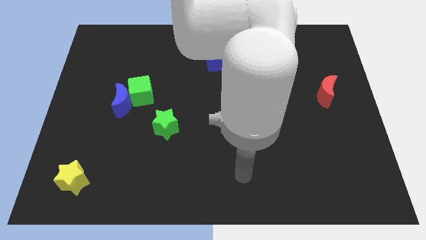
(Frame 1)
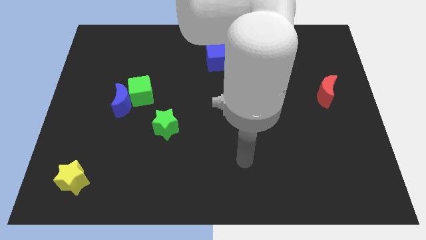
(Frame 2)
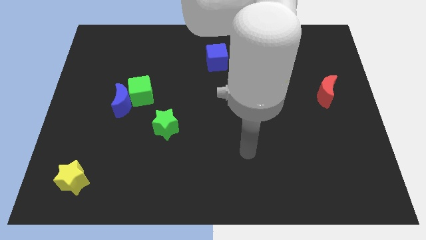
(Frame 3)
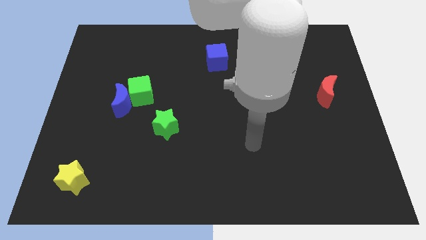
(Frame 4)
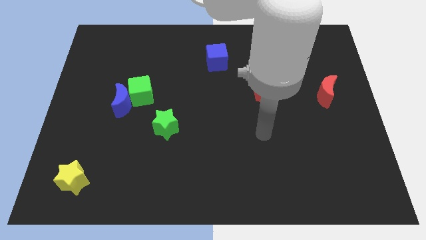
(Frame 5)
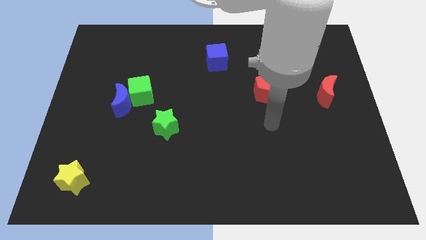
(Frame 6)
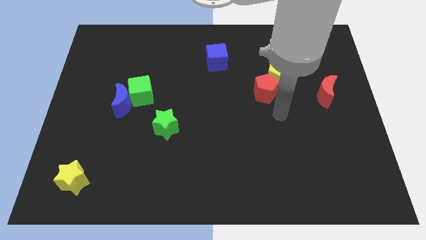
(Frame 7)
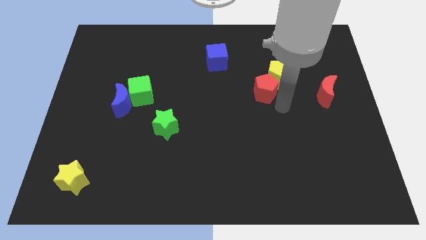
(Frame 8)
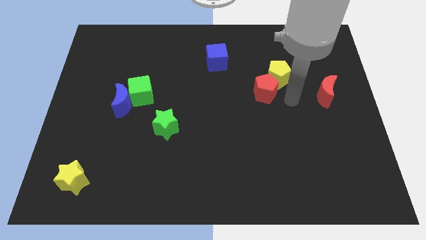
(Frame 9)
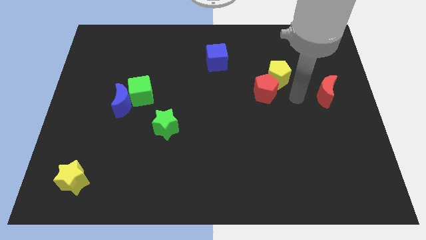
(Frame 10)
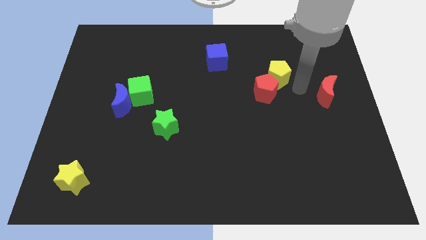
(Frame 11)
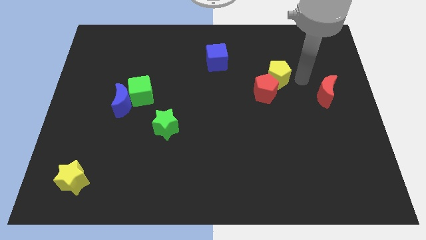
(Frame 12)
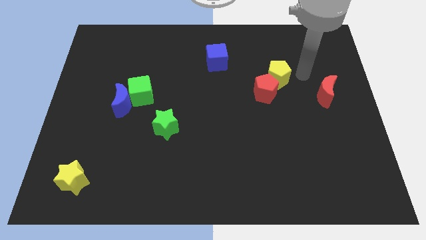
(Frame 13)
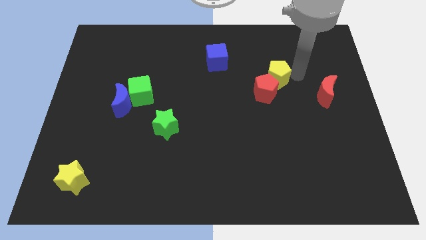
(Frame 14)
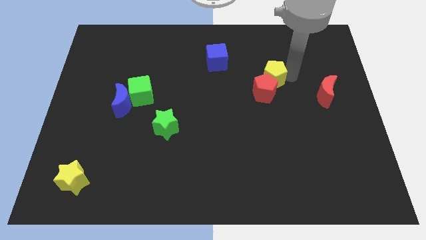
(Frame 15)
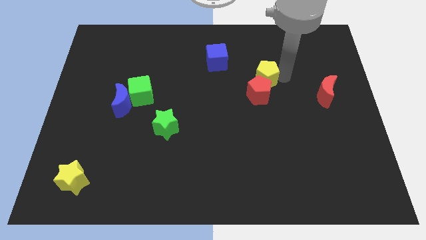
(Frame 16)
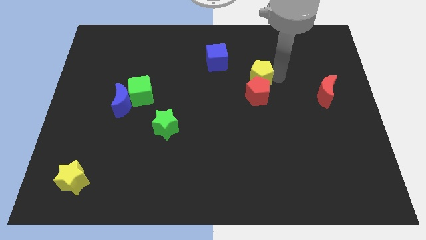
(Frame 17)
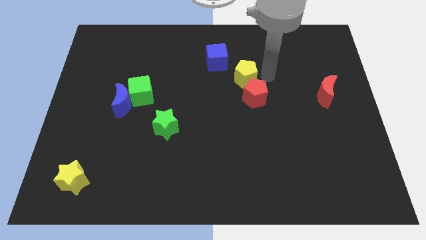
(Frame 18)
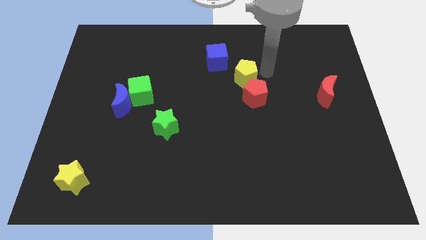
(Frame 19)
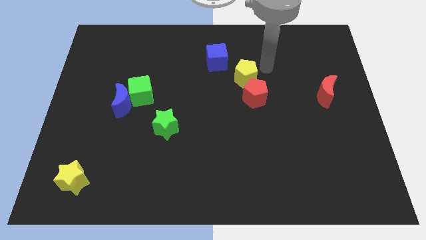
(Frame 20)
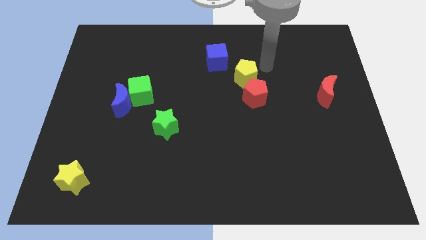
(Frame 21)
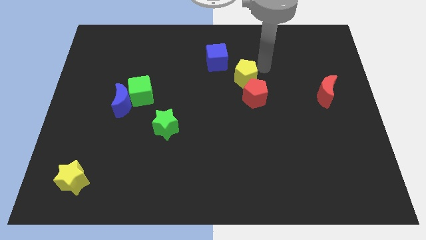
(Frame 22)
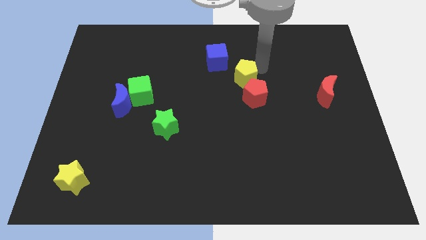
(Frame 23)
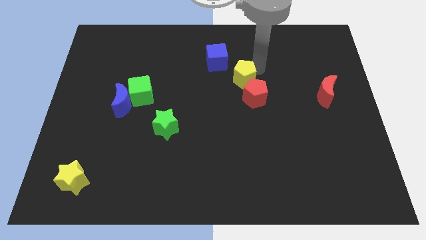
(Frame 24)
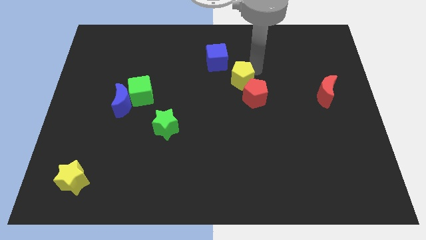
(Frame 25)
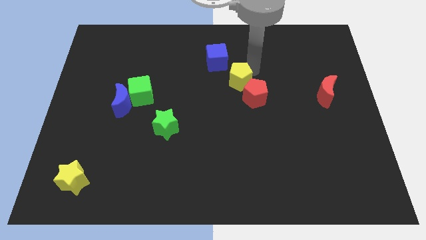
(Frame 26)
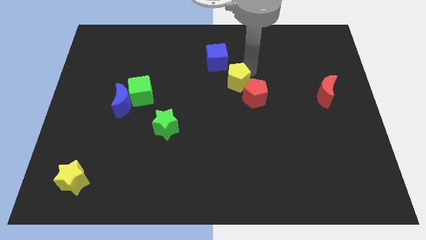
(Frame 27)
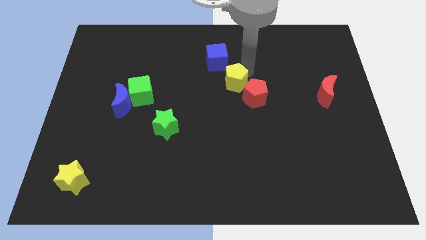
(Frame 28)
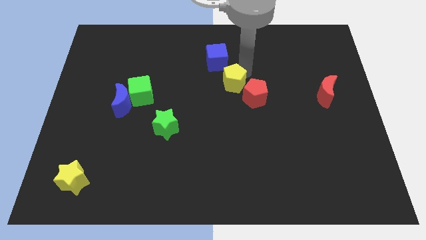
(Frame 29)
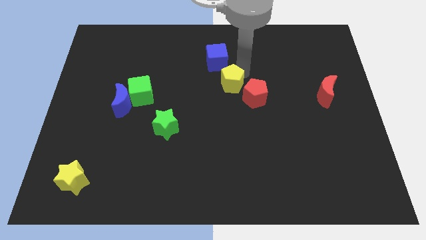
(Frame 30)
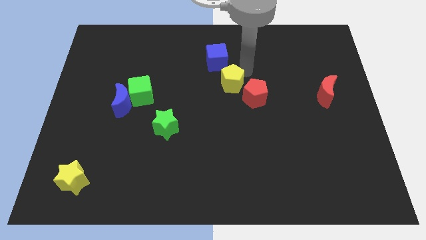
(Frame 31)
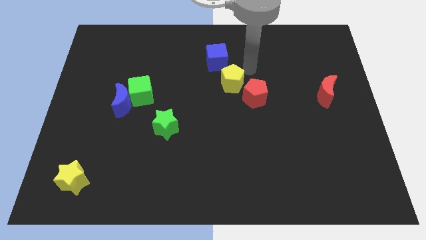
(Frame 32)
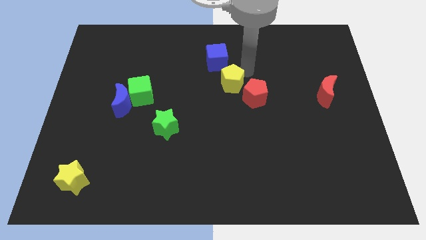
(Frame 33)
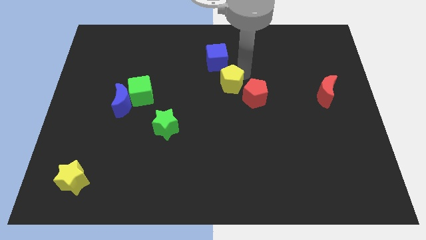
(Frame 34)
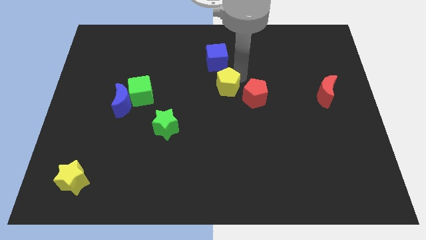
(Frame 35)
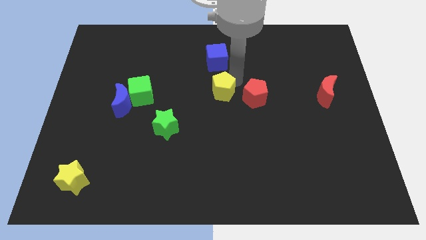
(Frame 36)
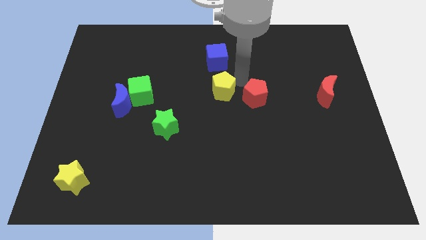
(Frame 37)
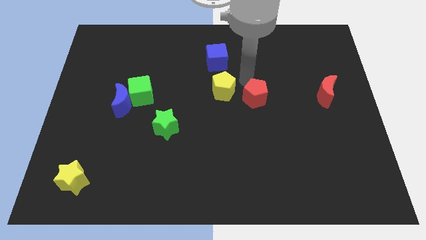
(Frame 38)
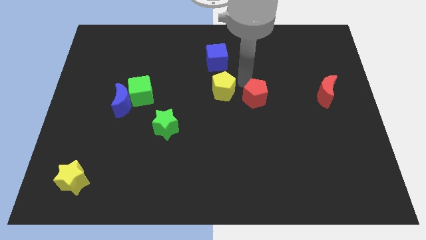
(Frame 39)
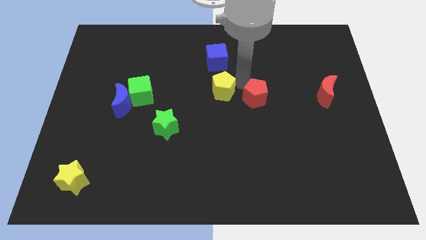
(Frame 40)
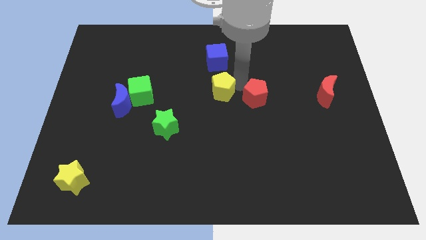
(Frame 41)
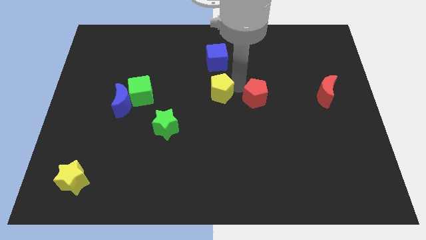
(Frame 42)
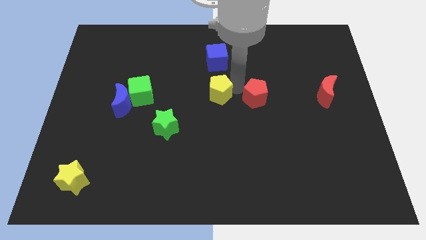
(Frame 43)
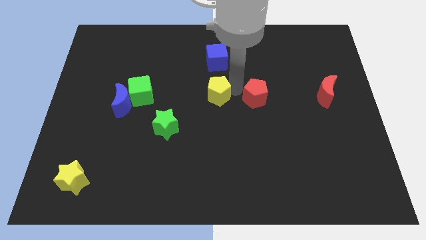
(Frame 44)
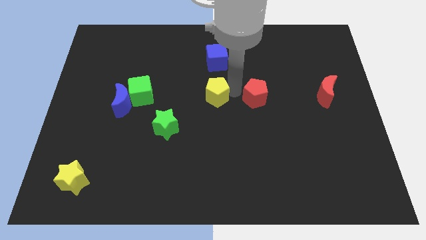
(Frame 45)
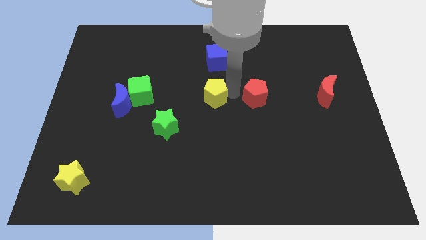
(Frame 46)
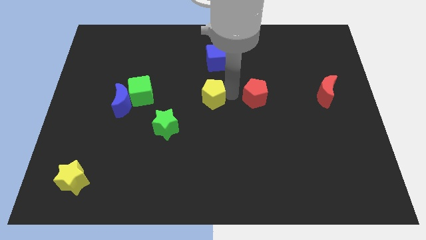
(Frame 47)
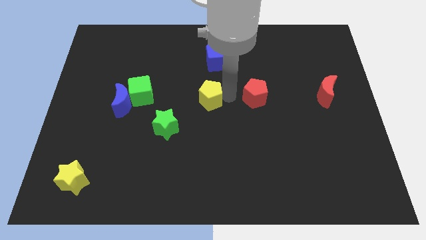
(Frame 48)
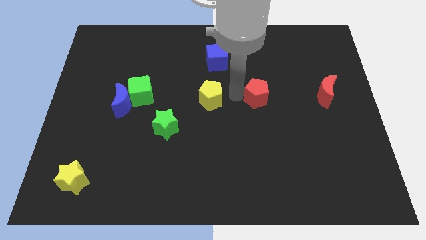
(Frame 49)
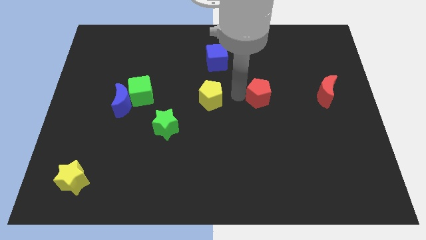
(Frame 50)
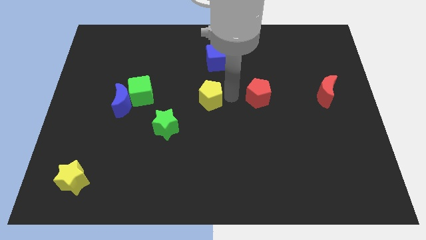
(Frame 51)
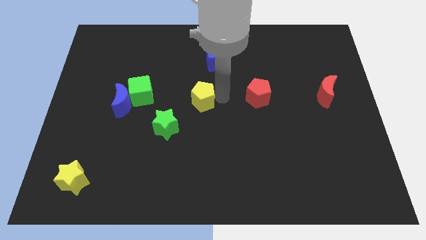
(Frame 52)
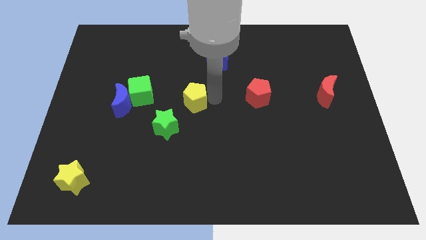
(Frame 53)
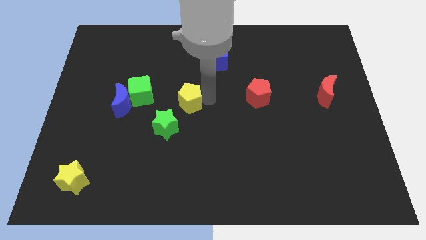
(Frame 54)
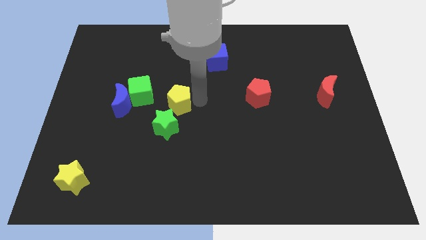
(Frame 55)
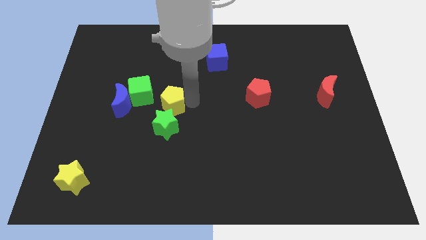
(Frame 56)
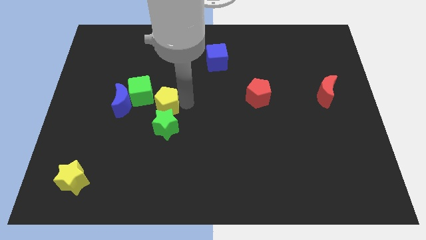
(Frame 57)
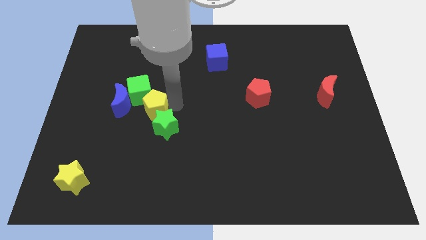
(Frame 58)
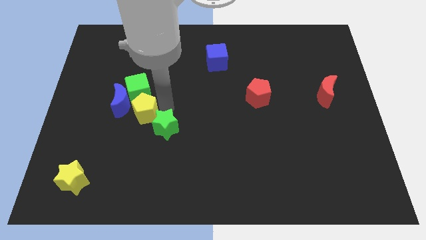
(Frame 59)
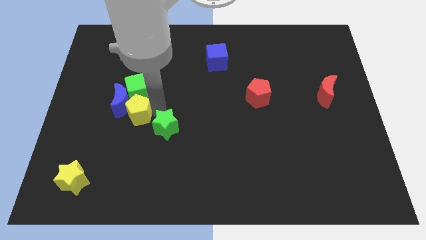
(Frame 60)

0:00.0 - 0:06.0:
push the yellow pentagon towards the blue moon

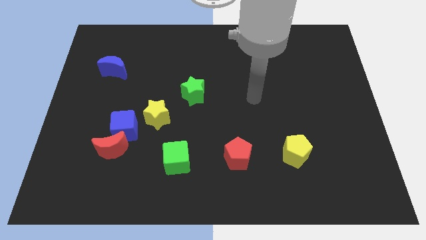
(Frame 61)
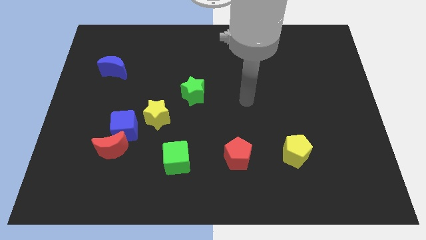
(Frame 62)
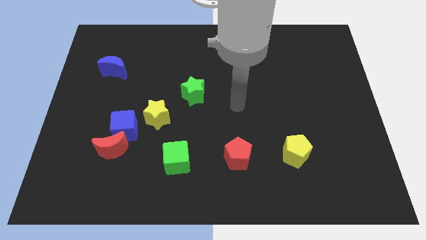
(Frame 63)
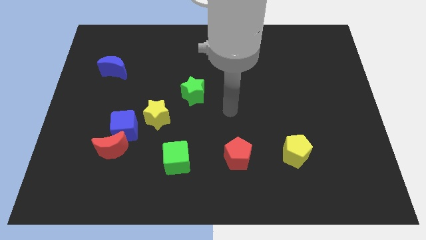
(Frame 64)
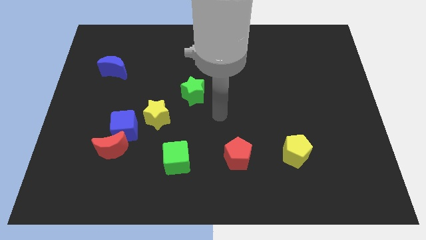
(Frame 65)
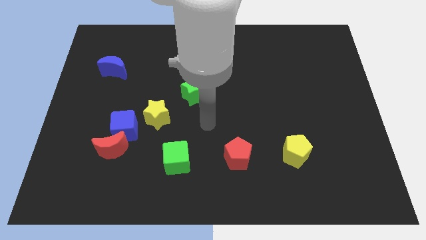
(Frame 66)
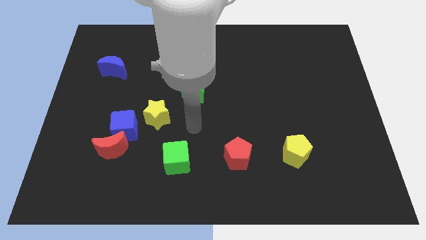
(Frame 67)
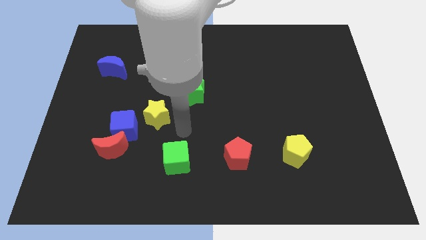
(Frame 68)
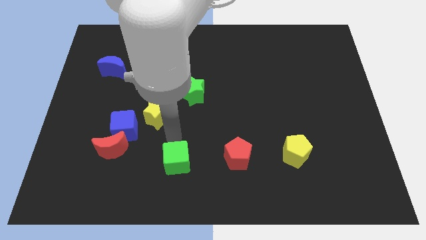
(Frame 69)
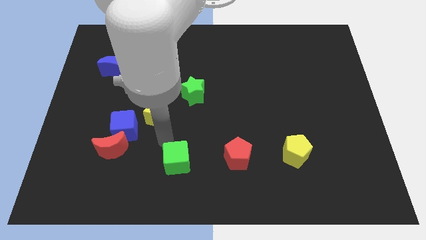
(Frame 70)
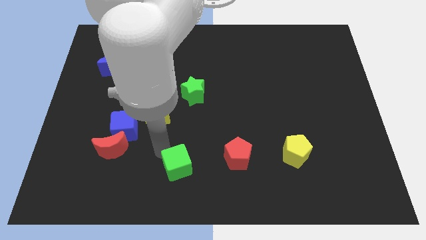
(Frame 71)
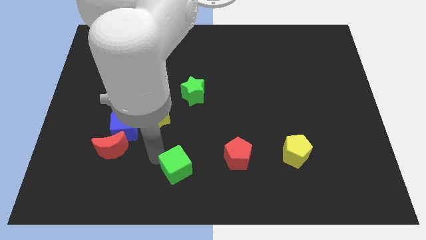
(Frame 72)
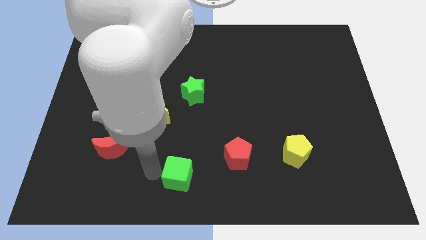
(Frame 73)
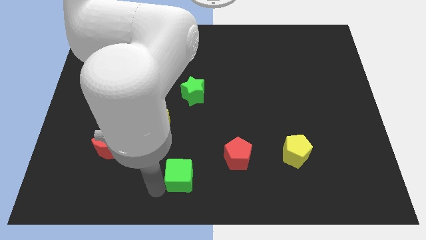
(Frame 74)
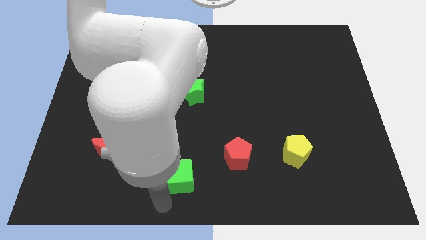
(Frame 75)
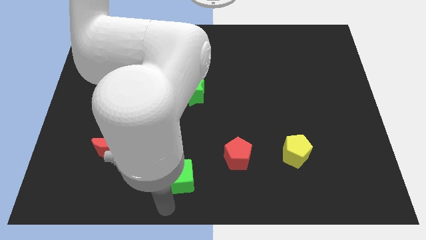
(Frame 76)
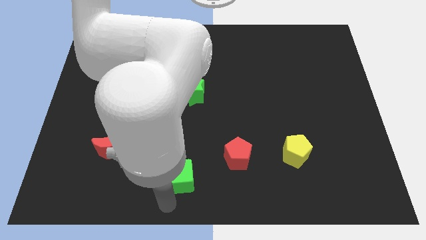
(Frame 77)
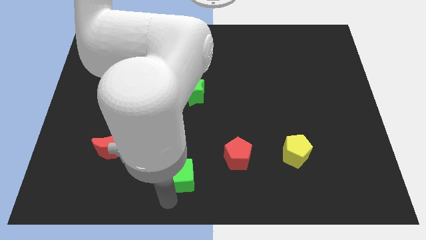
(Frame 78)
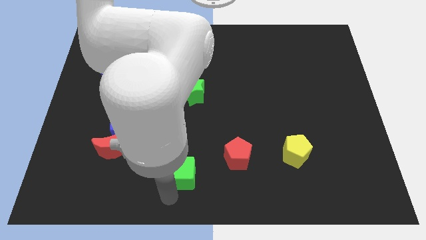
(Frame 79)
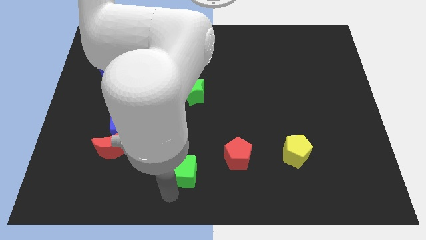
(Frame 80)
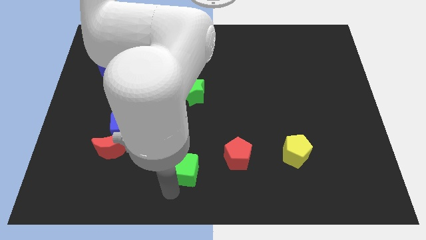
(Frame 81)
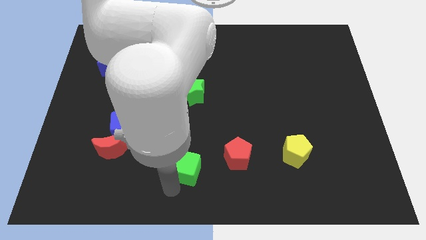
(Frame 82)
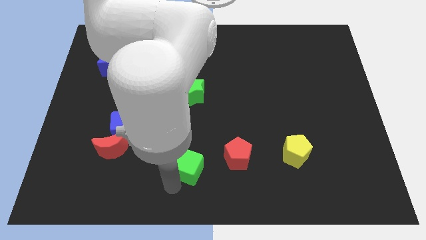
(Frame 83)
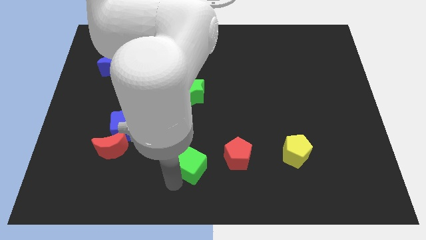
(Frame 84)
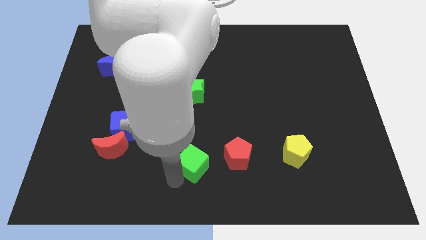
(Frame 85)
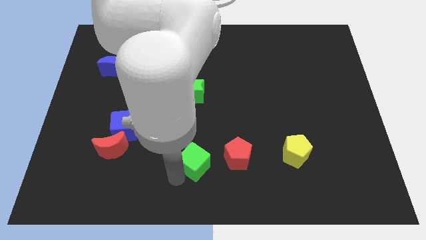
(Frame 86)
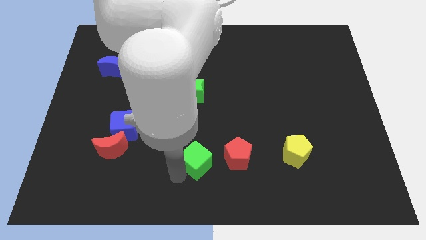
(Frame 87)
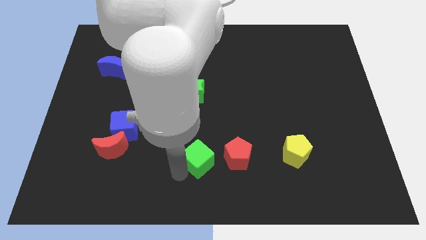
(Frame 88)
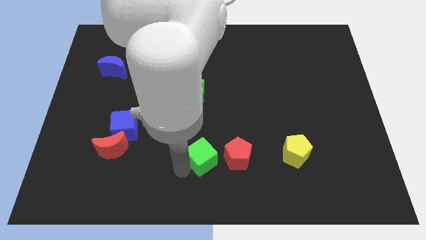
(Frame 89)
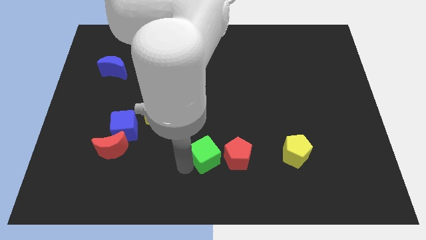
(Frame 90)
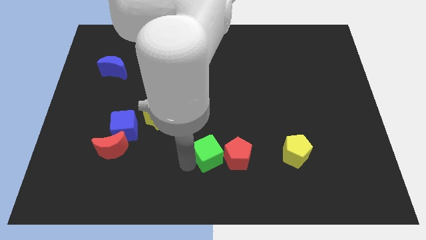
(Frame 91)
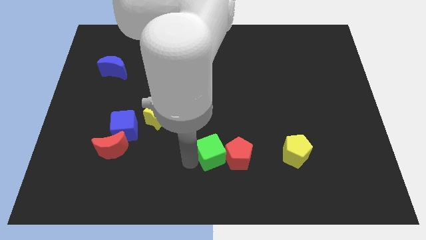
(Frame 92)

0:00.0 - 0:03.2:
push the green cube to the red pentagon
